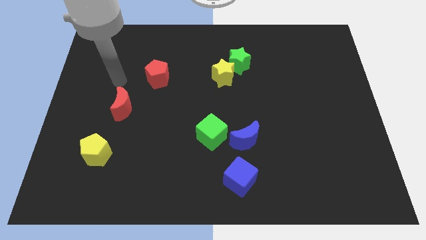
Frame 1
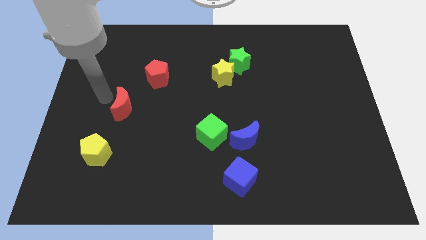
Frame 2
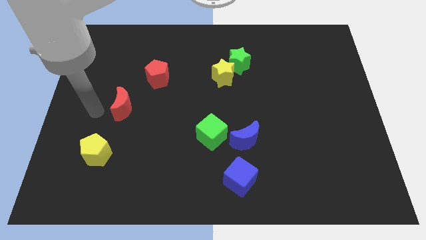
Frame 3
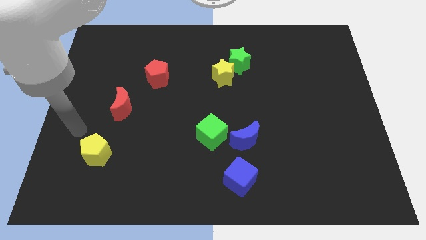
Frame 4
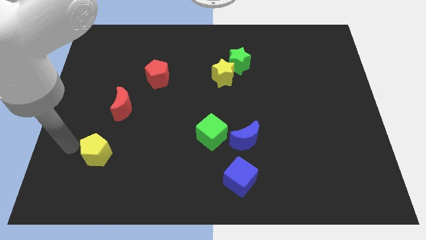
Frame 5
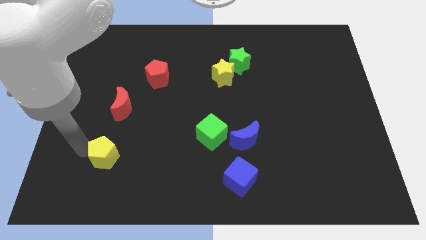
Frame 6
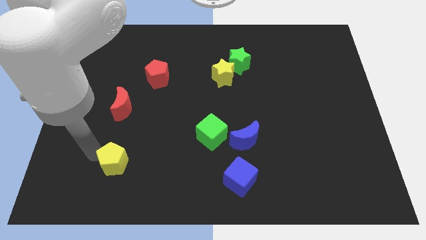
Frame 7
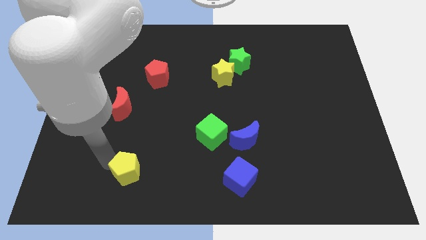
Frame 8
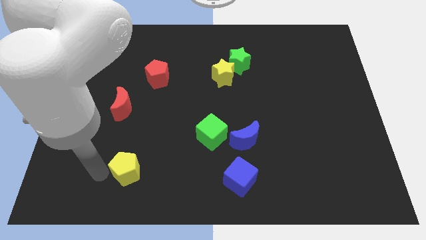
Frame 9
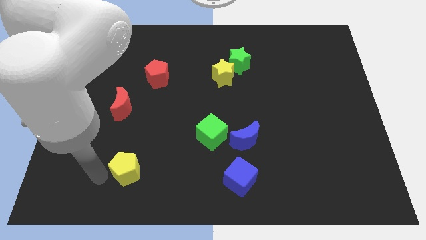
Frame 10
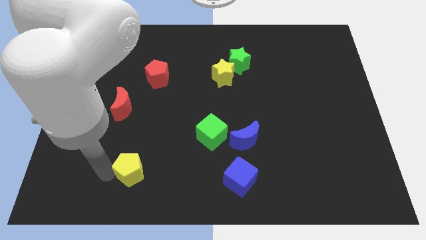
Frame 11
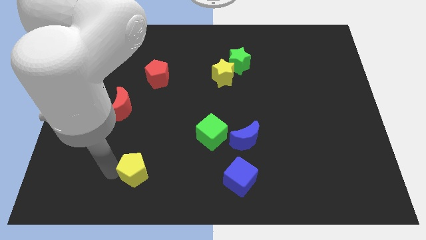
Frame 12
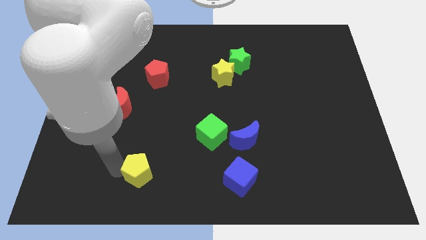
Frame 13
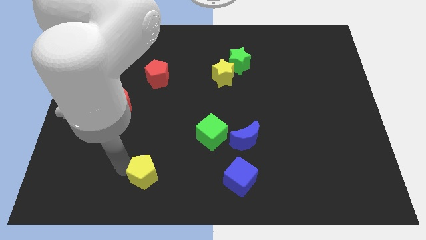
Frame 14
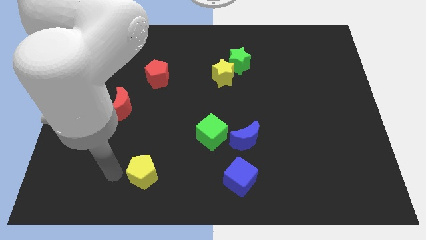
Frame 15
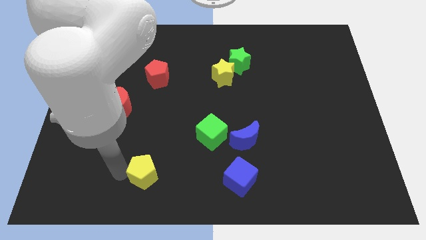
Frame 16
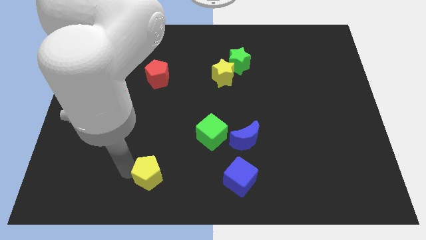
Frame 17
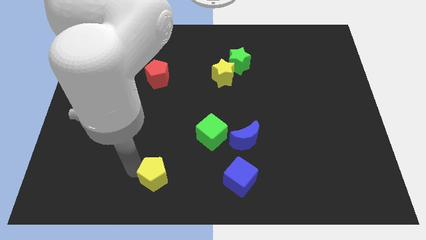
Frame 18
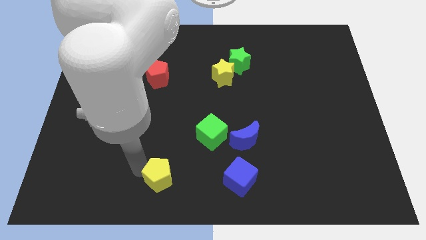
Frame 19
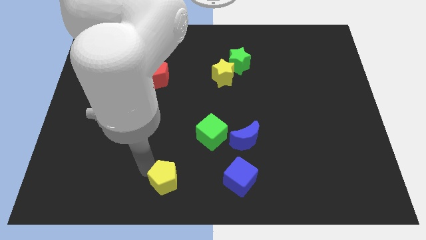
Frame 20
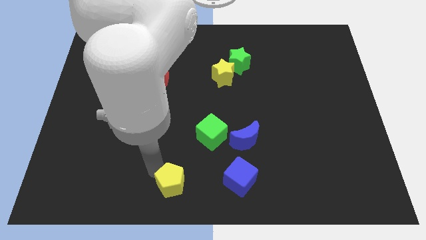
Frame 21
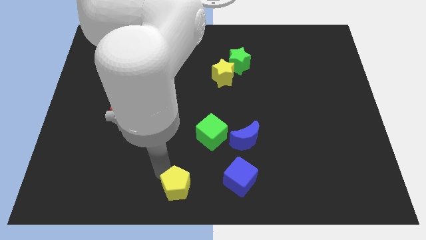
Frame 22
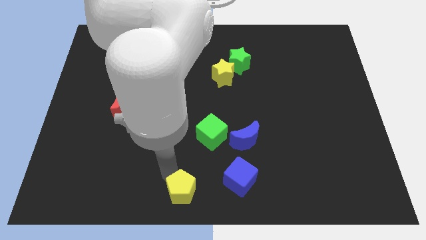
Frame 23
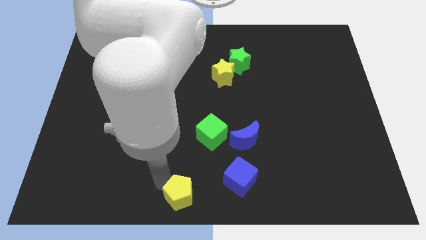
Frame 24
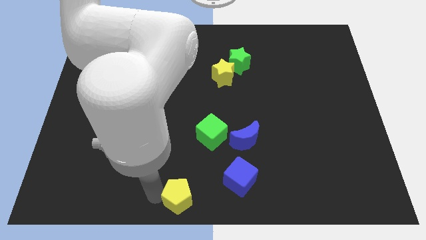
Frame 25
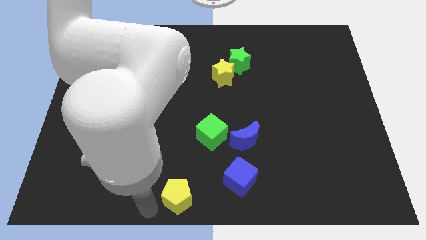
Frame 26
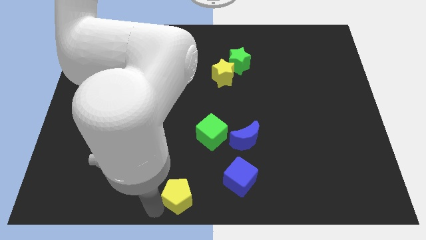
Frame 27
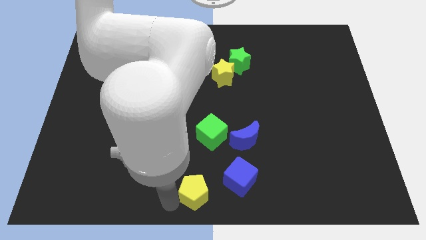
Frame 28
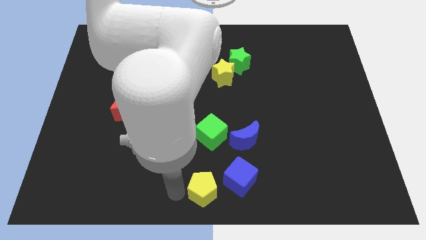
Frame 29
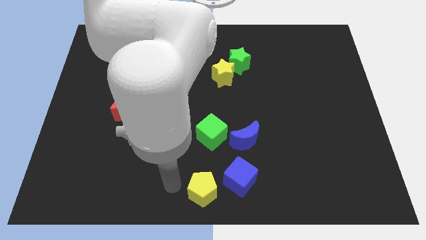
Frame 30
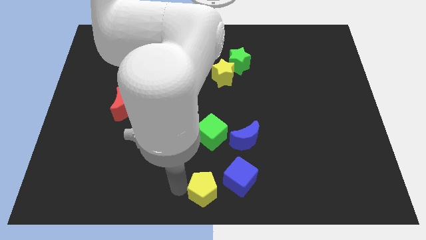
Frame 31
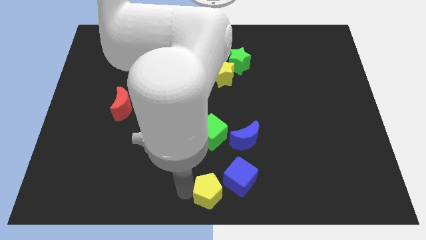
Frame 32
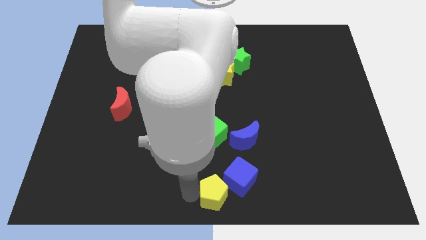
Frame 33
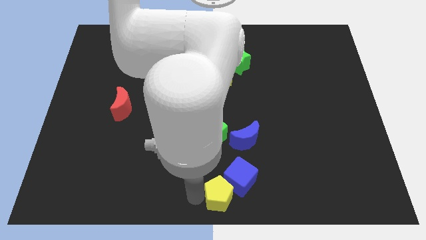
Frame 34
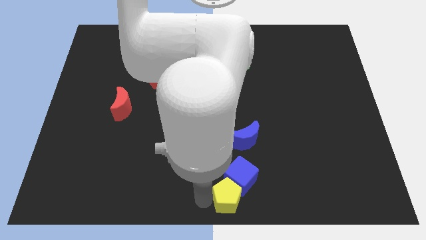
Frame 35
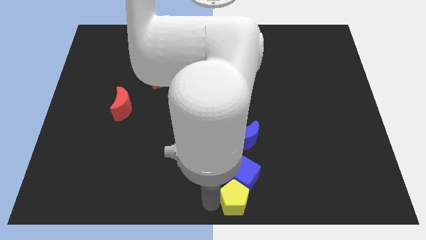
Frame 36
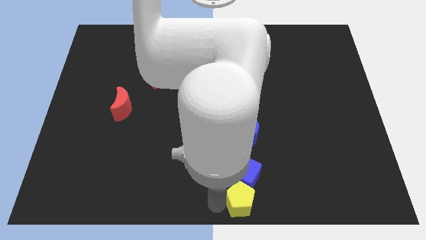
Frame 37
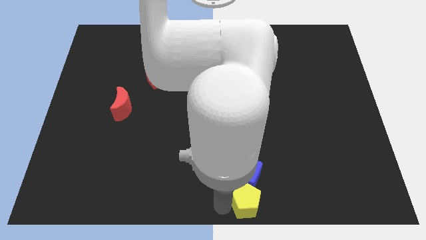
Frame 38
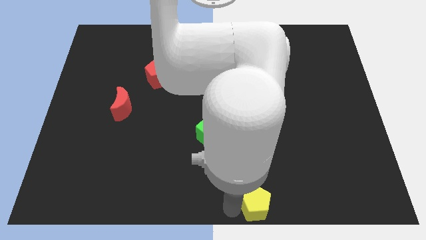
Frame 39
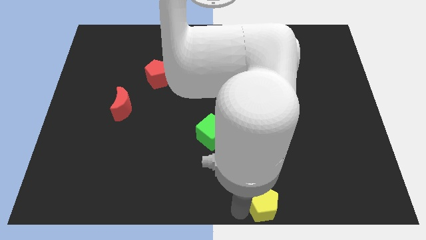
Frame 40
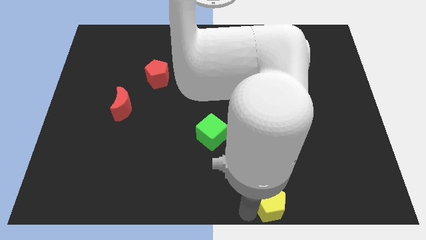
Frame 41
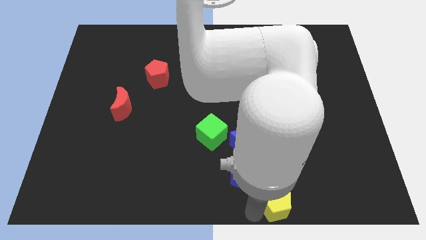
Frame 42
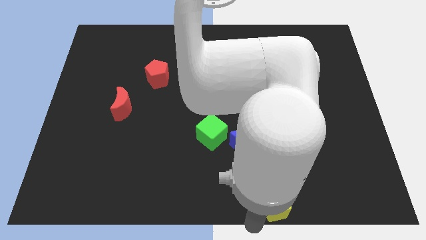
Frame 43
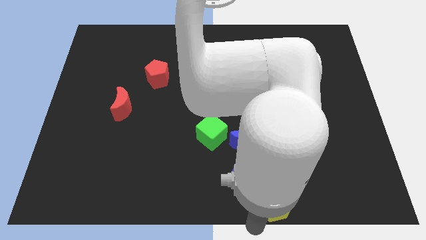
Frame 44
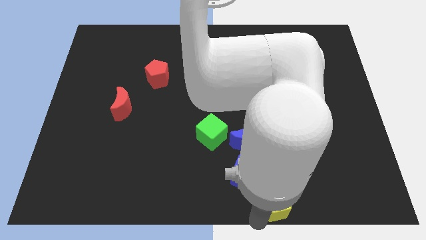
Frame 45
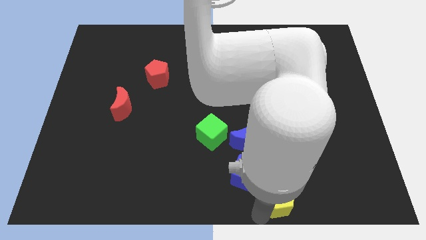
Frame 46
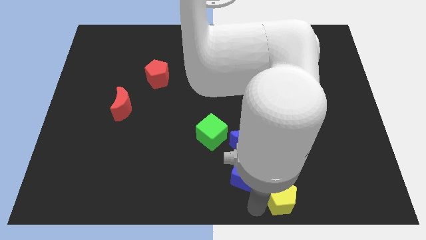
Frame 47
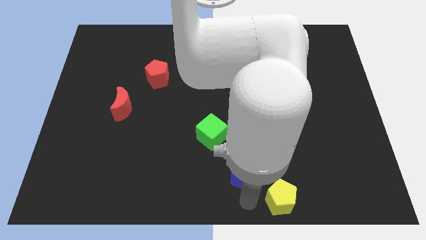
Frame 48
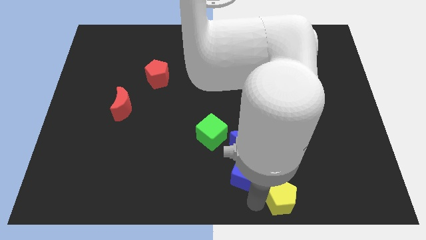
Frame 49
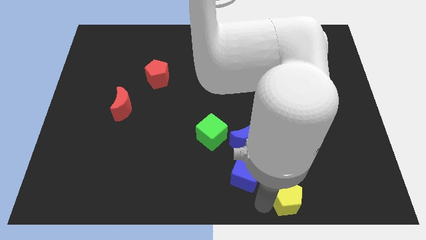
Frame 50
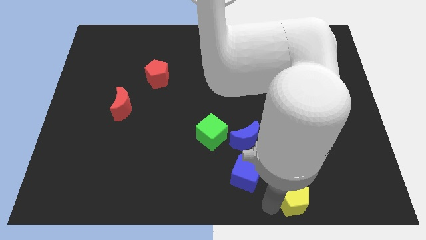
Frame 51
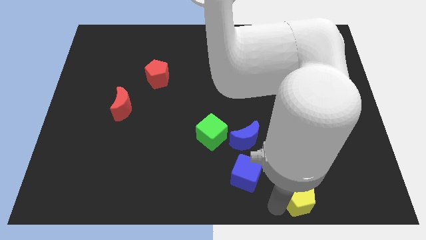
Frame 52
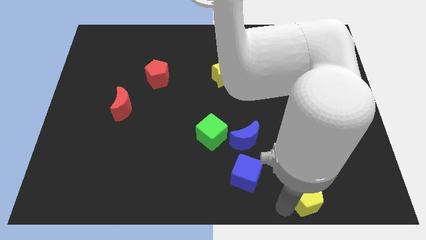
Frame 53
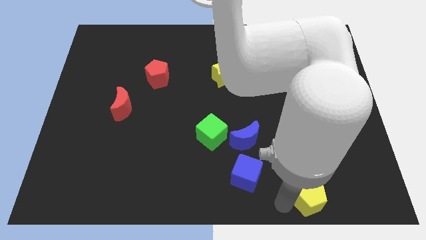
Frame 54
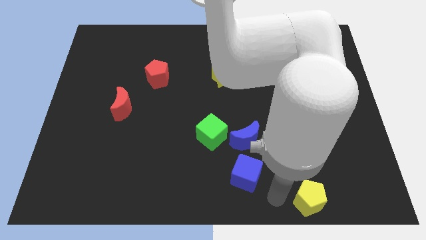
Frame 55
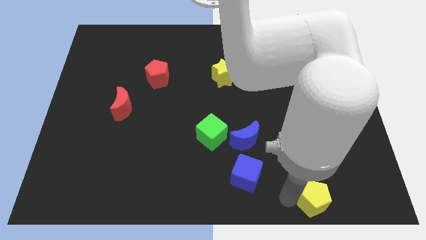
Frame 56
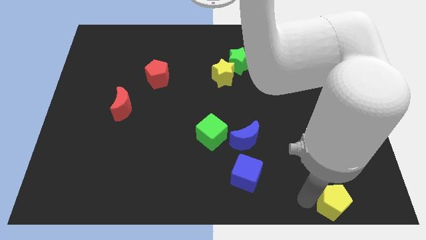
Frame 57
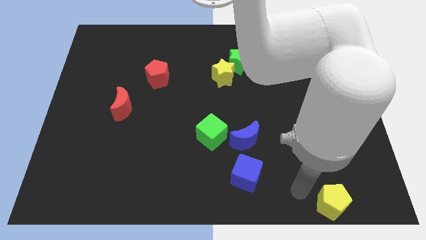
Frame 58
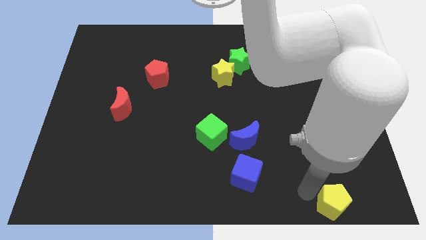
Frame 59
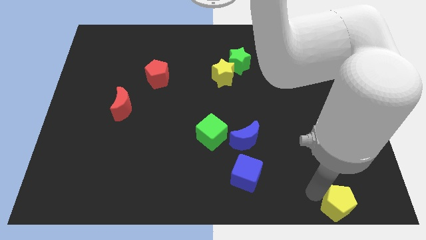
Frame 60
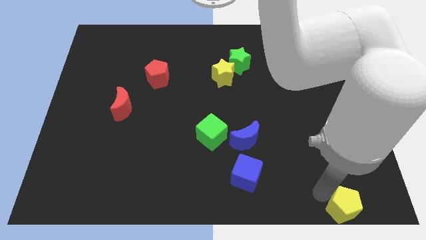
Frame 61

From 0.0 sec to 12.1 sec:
move the yellow pentagon to the bottom right of the board

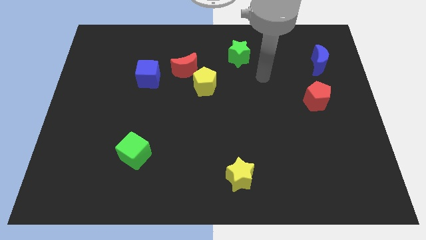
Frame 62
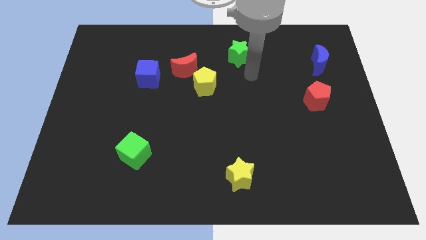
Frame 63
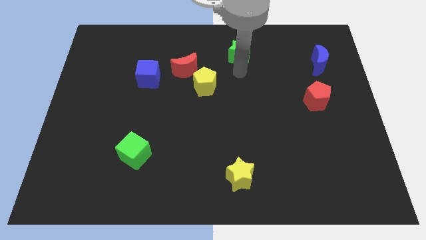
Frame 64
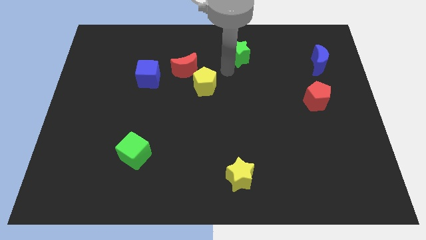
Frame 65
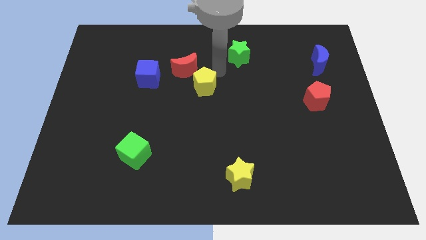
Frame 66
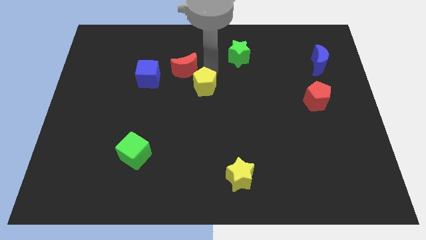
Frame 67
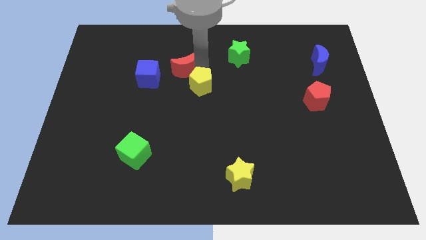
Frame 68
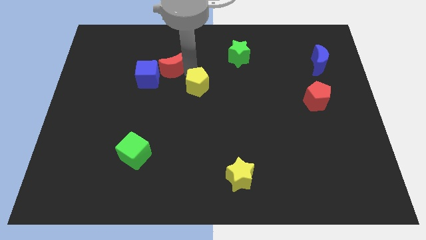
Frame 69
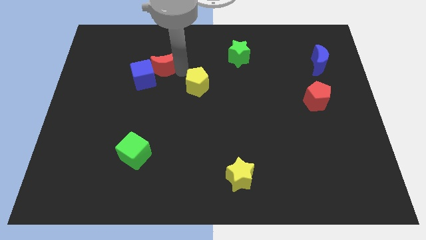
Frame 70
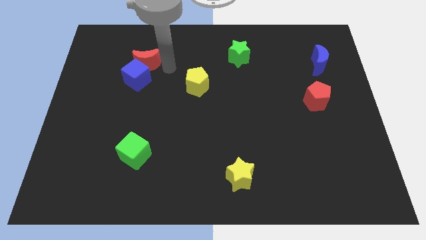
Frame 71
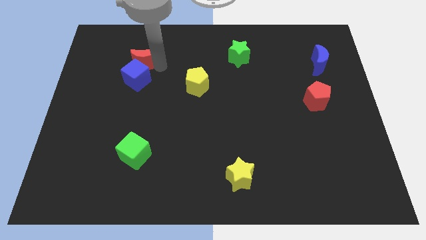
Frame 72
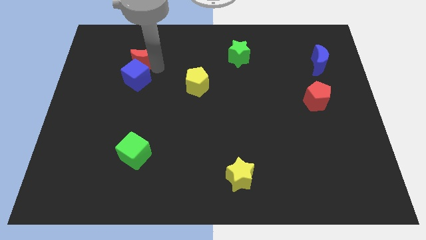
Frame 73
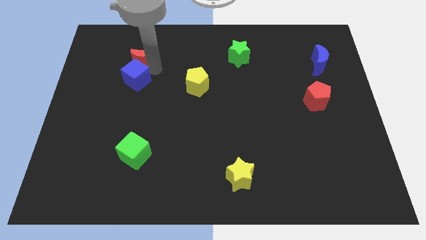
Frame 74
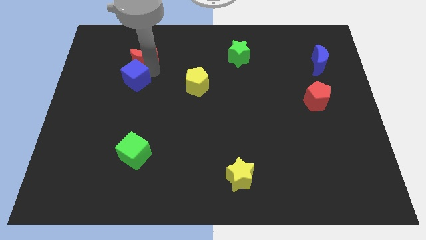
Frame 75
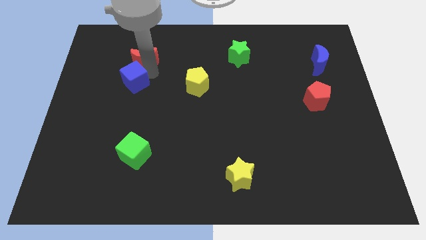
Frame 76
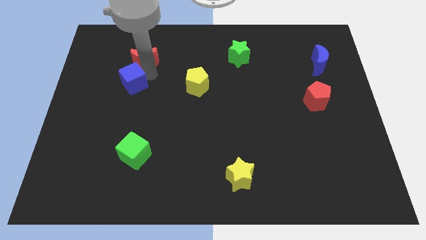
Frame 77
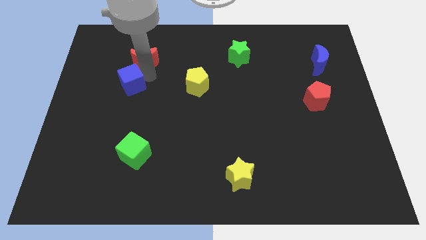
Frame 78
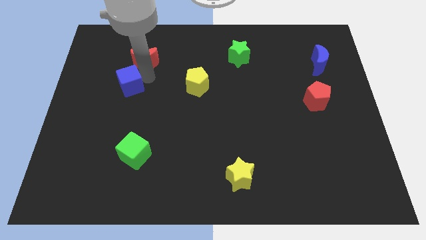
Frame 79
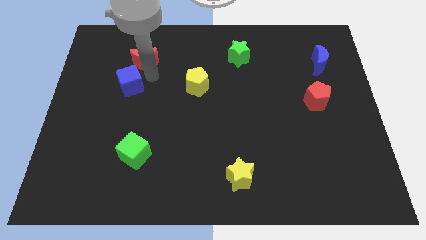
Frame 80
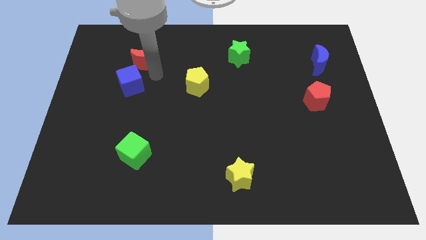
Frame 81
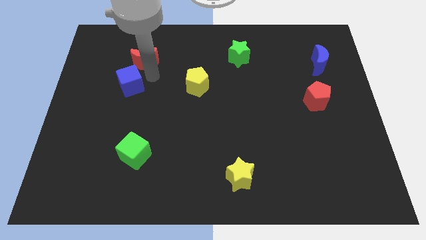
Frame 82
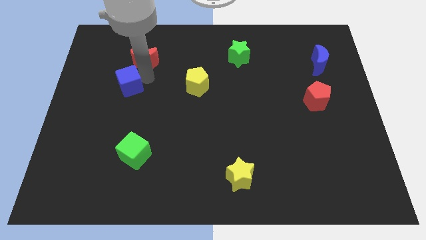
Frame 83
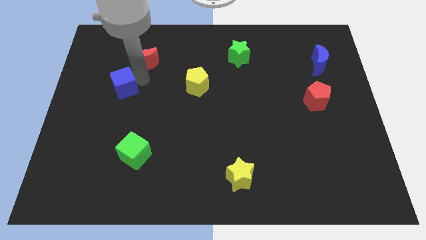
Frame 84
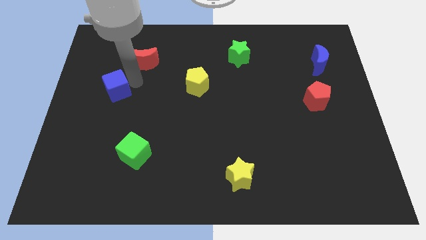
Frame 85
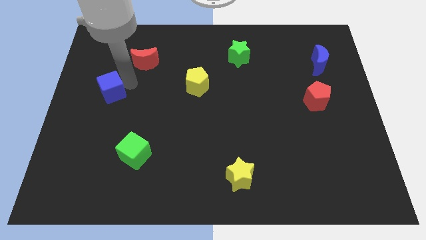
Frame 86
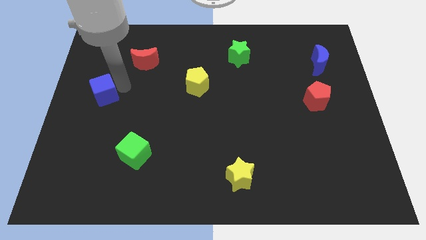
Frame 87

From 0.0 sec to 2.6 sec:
move the blue cube to the center left
